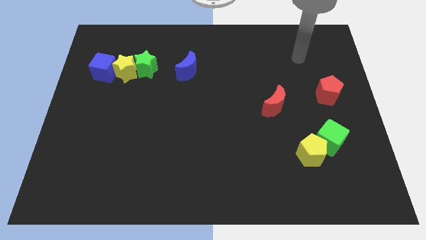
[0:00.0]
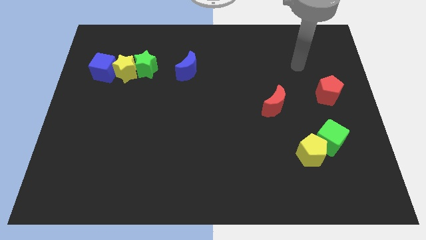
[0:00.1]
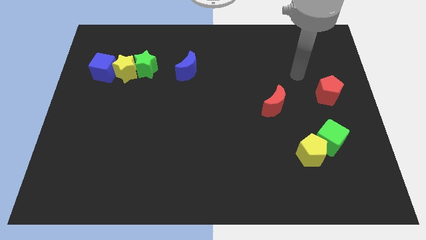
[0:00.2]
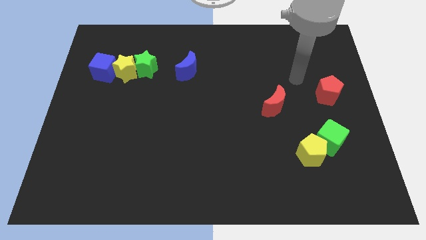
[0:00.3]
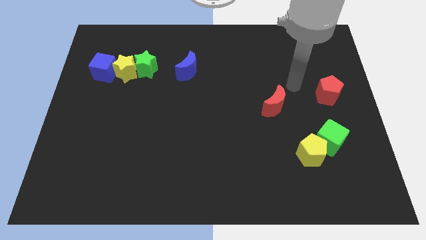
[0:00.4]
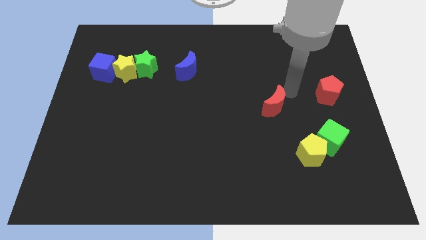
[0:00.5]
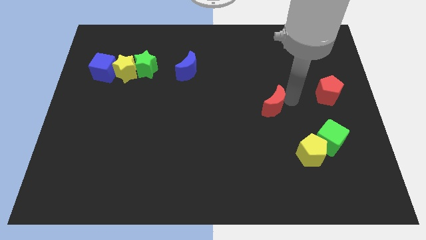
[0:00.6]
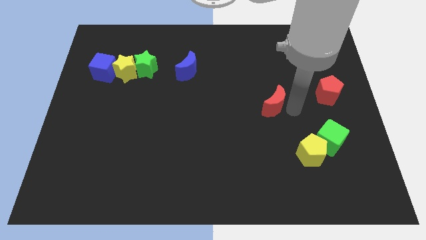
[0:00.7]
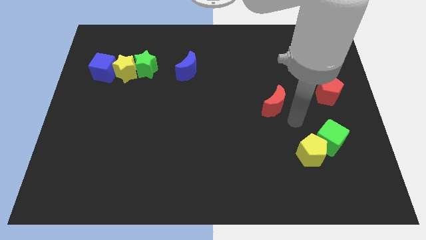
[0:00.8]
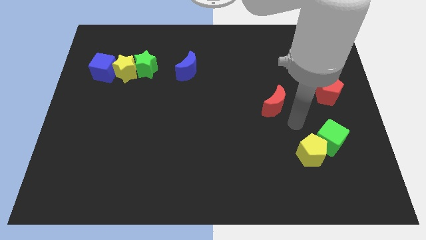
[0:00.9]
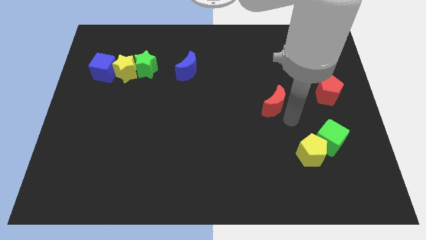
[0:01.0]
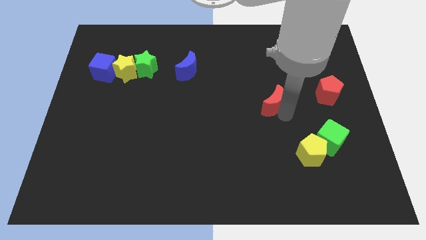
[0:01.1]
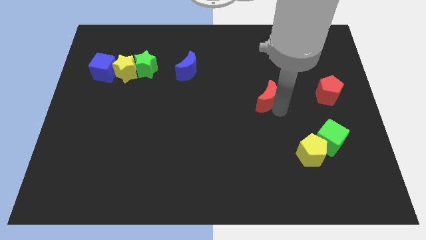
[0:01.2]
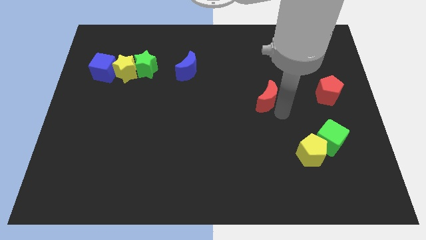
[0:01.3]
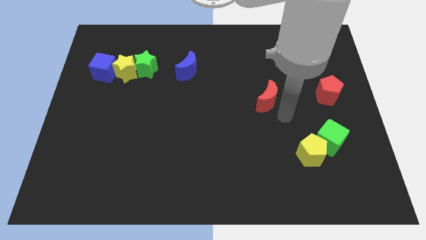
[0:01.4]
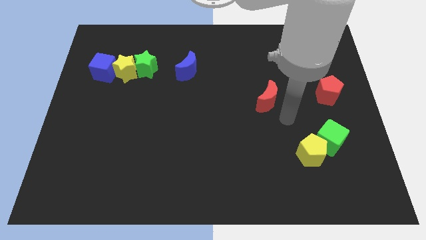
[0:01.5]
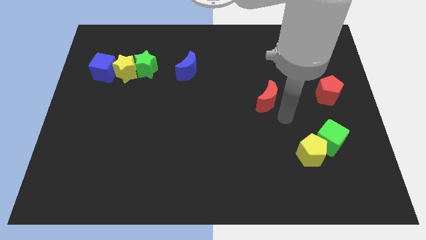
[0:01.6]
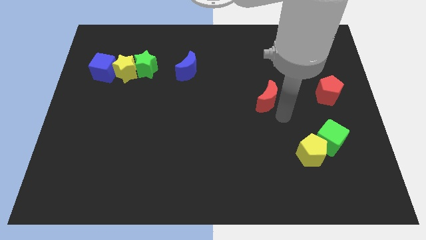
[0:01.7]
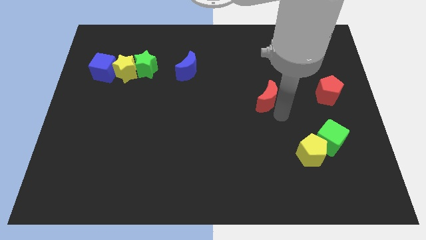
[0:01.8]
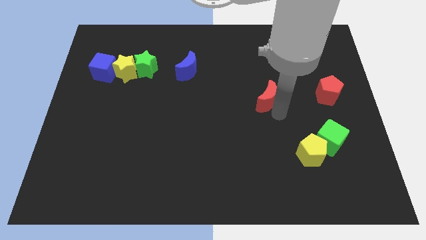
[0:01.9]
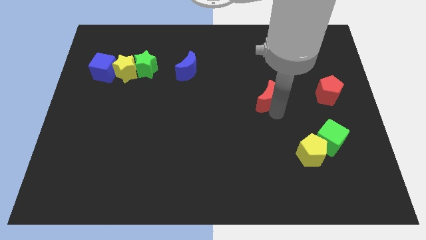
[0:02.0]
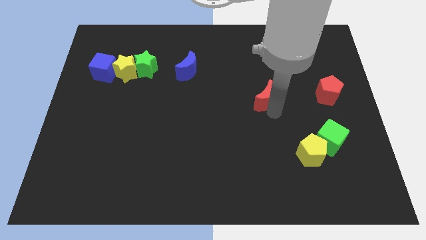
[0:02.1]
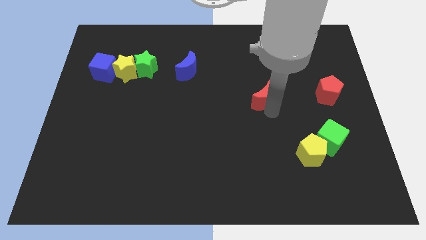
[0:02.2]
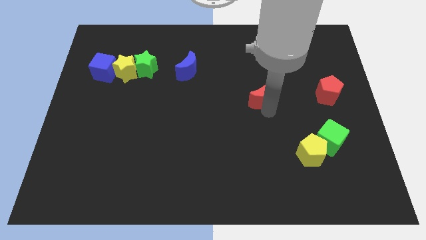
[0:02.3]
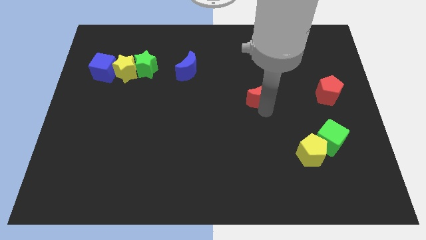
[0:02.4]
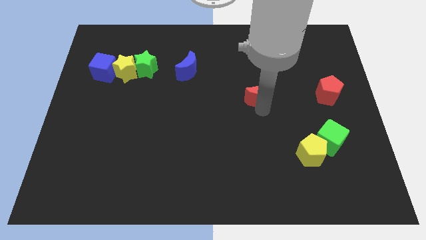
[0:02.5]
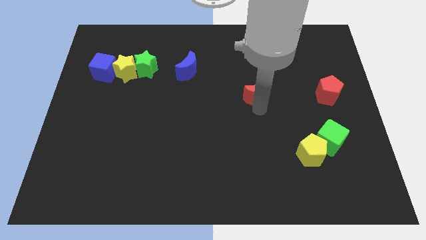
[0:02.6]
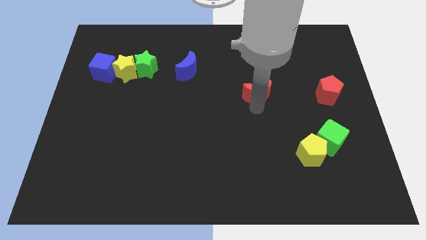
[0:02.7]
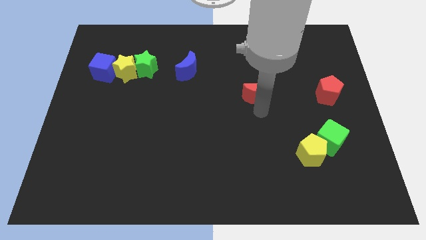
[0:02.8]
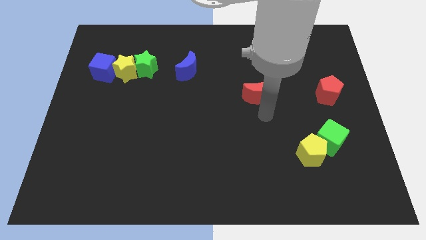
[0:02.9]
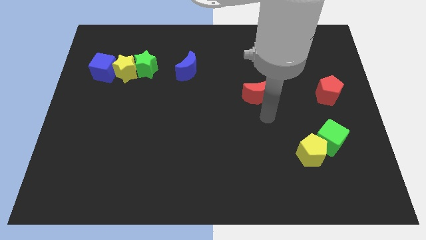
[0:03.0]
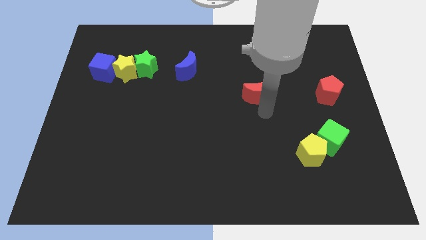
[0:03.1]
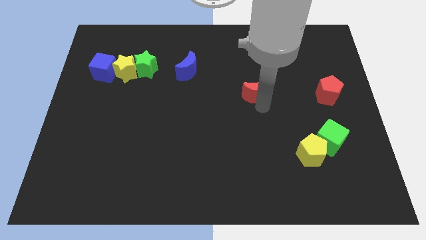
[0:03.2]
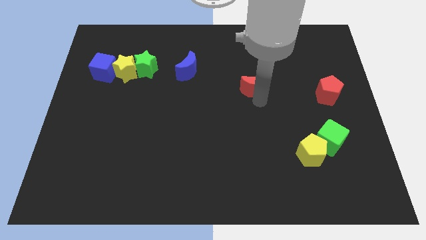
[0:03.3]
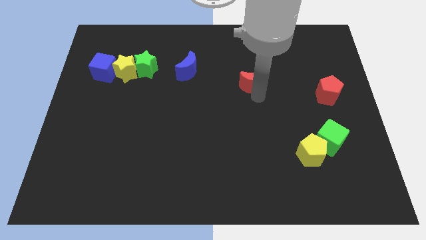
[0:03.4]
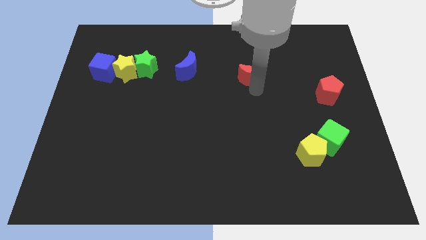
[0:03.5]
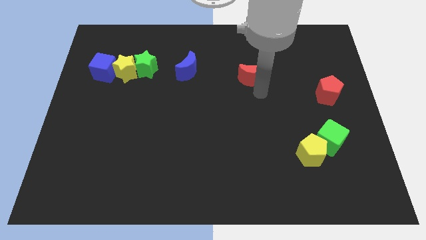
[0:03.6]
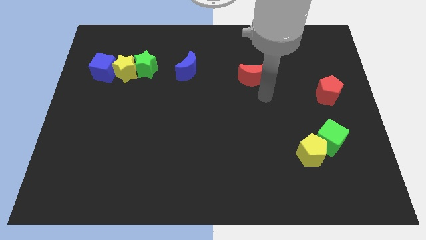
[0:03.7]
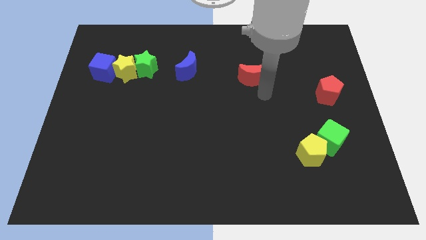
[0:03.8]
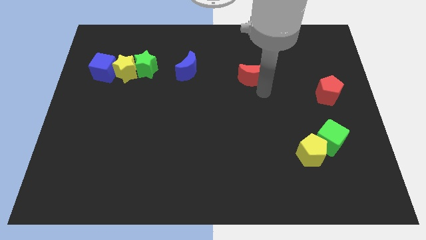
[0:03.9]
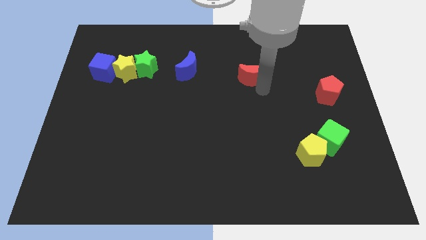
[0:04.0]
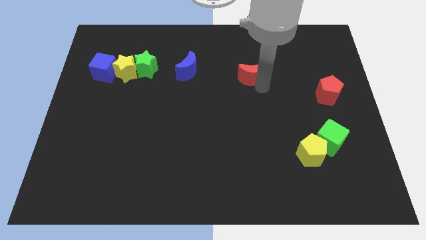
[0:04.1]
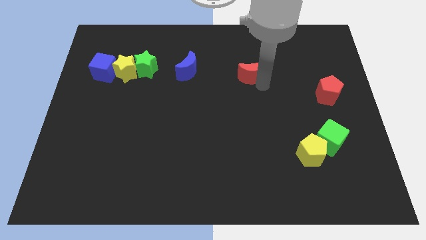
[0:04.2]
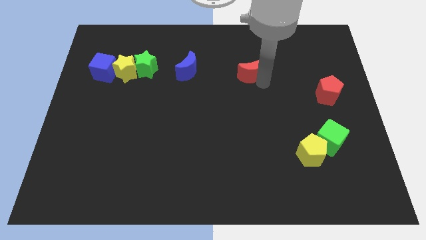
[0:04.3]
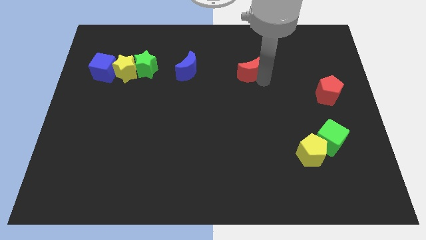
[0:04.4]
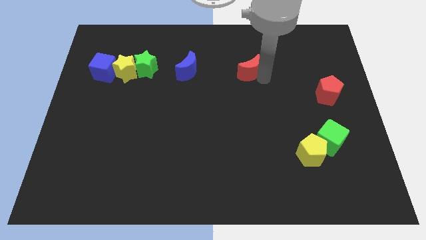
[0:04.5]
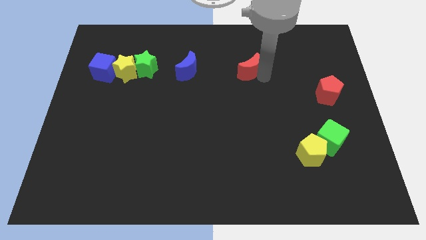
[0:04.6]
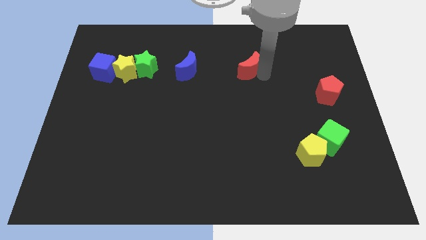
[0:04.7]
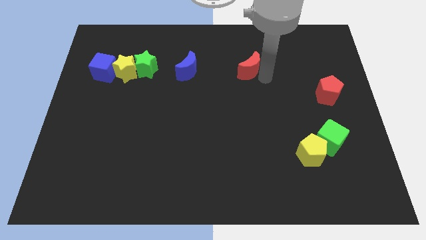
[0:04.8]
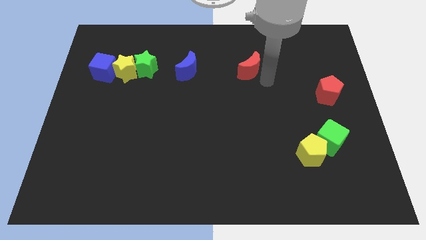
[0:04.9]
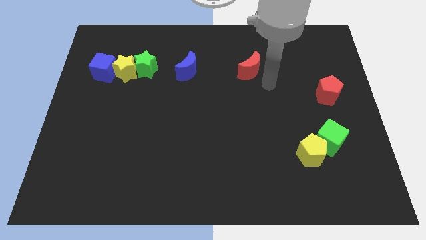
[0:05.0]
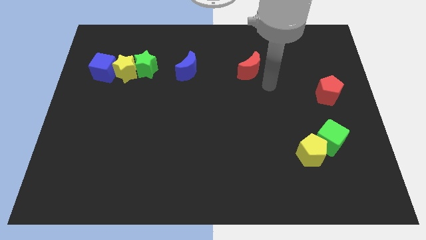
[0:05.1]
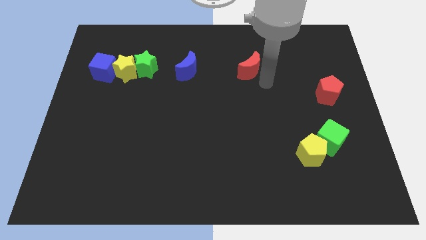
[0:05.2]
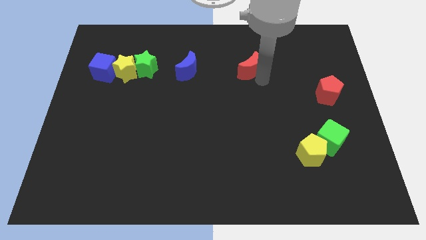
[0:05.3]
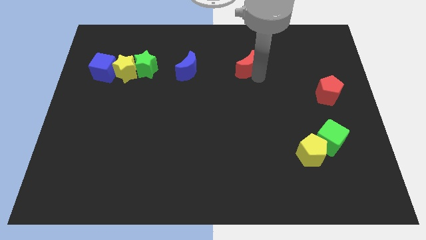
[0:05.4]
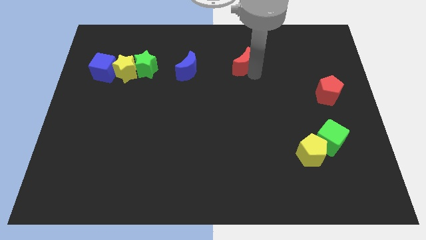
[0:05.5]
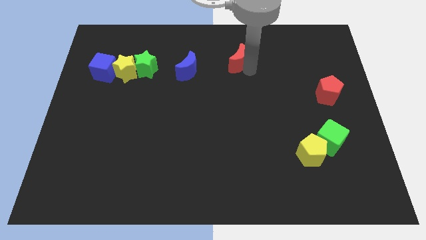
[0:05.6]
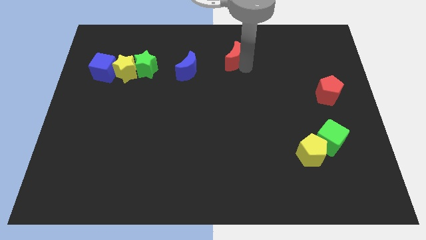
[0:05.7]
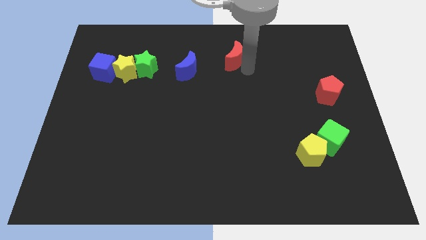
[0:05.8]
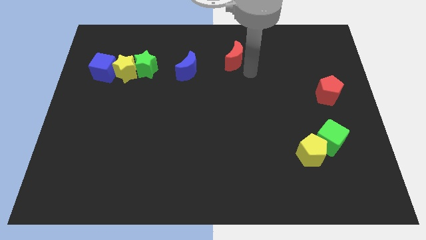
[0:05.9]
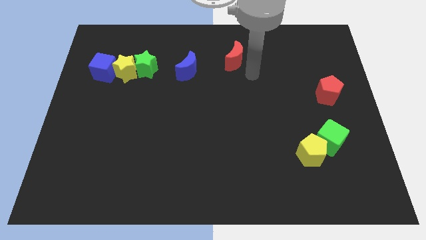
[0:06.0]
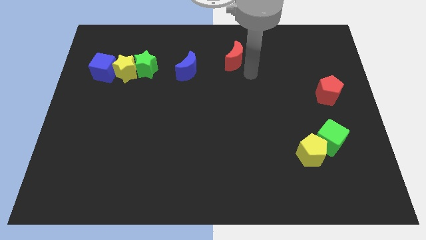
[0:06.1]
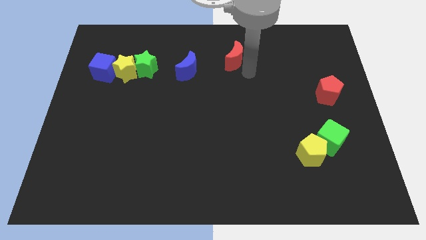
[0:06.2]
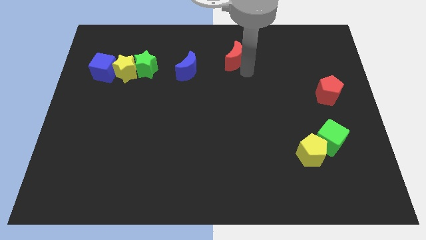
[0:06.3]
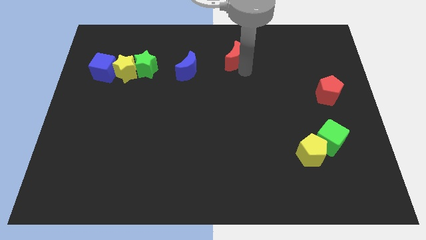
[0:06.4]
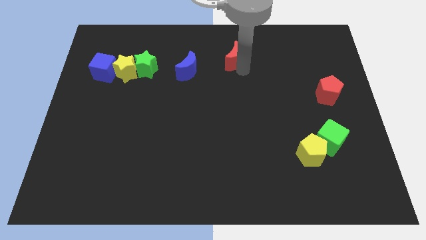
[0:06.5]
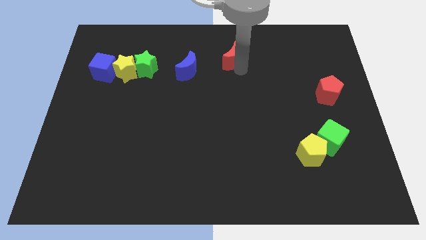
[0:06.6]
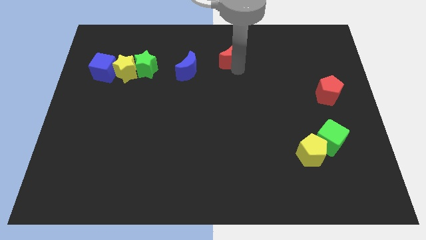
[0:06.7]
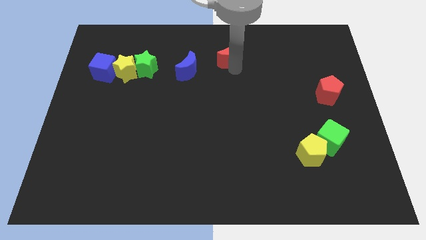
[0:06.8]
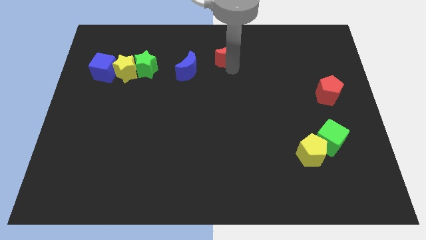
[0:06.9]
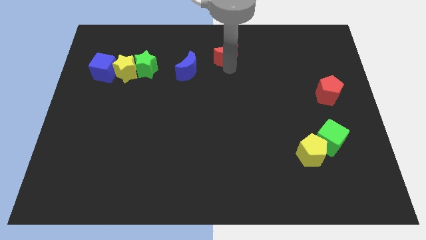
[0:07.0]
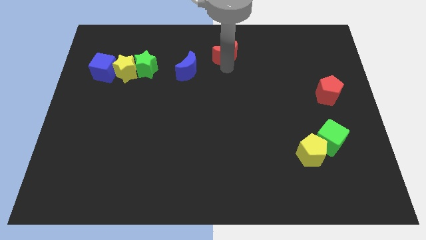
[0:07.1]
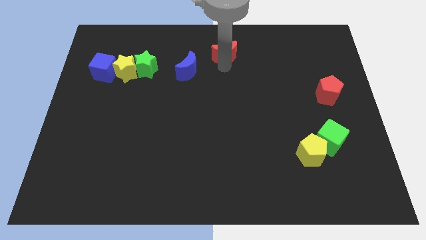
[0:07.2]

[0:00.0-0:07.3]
push the red moon to the towards your base
